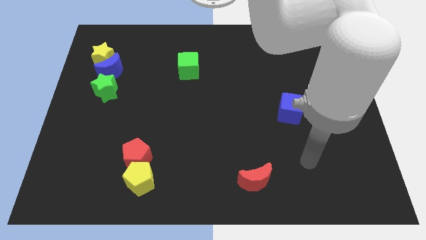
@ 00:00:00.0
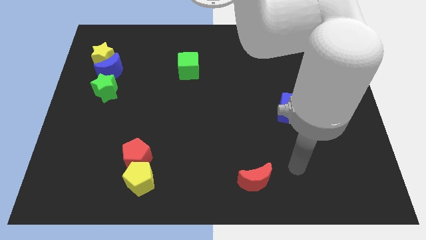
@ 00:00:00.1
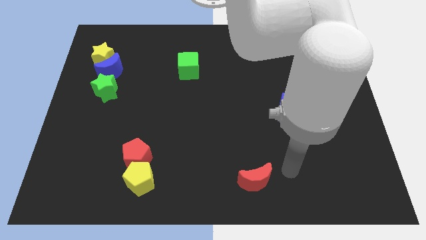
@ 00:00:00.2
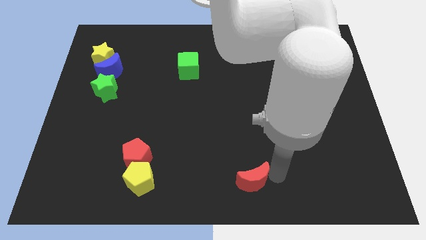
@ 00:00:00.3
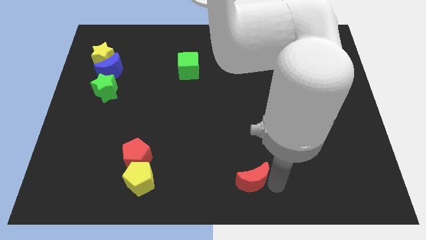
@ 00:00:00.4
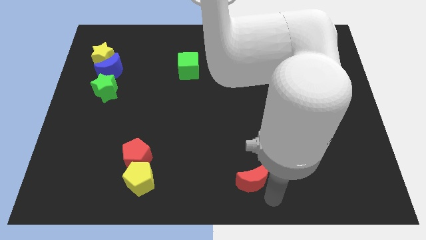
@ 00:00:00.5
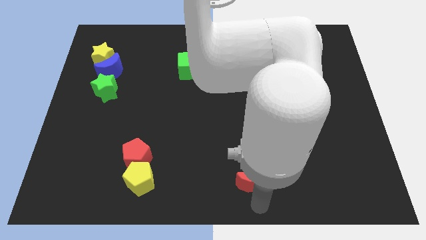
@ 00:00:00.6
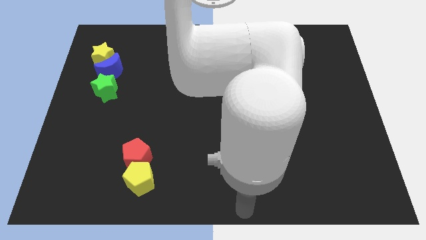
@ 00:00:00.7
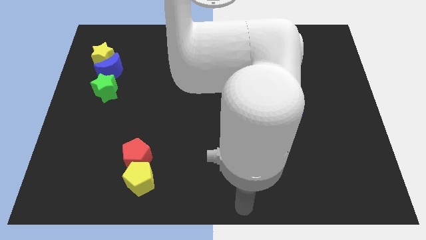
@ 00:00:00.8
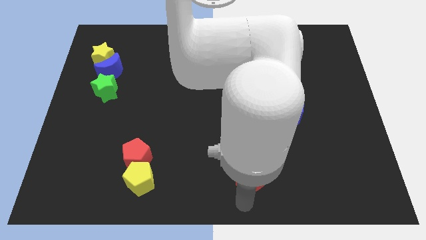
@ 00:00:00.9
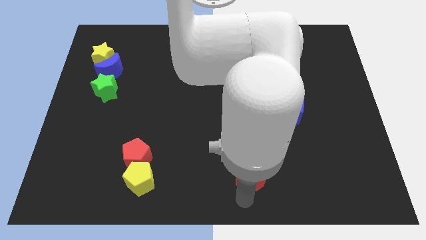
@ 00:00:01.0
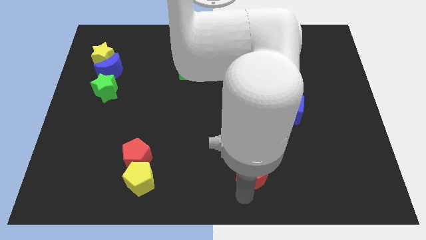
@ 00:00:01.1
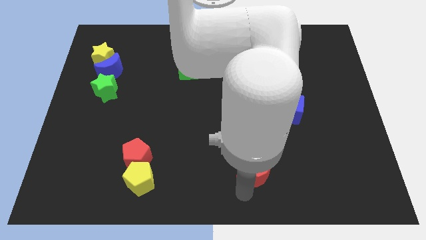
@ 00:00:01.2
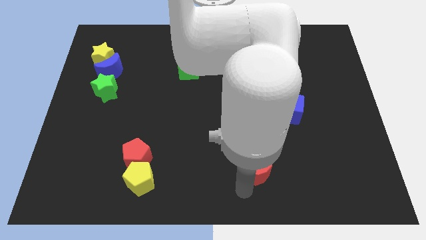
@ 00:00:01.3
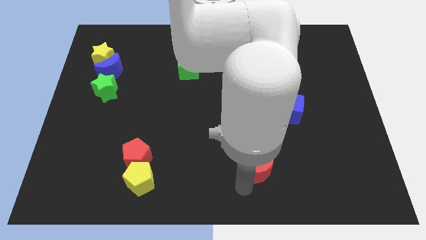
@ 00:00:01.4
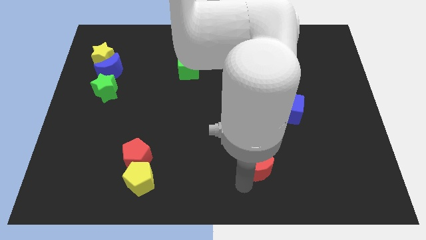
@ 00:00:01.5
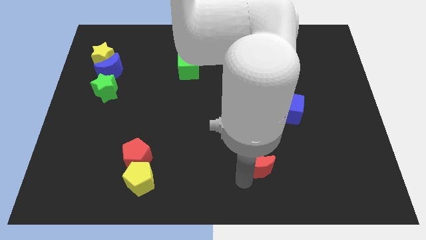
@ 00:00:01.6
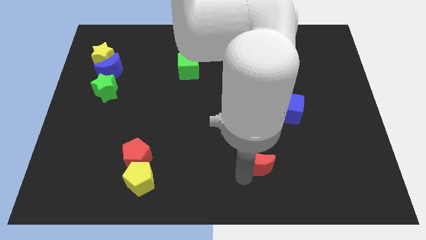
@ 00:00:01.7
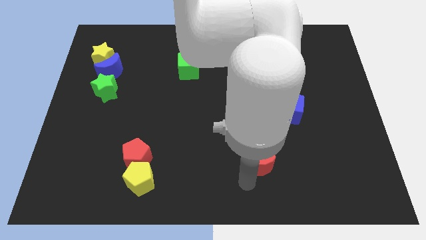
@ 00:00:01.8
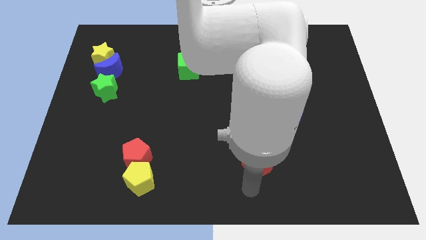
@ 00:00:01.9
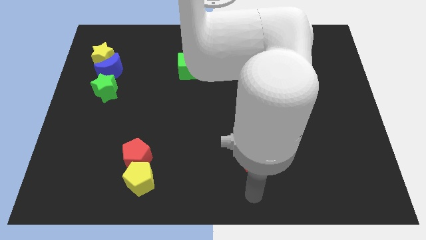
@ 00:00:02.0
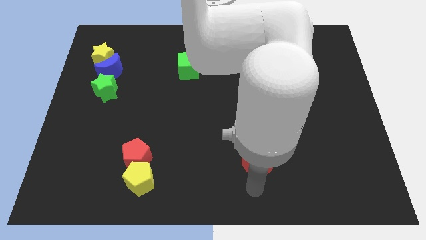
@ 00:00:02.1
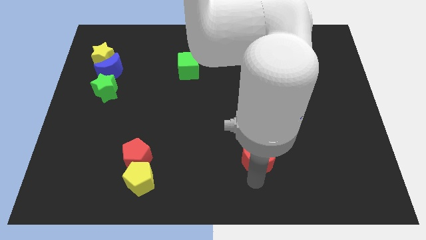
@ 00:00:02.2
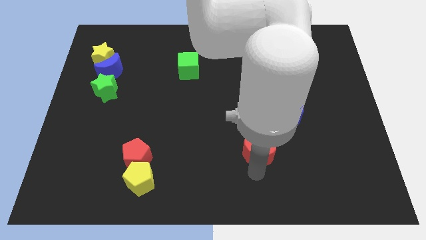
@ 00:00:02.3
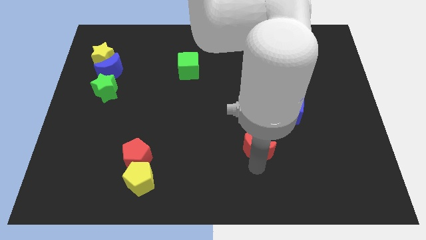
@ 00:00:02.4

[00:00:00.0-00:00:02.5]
push the red moon a little up

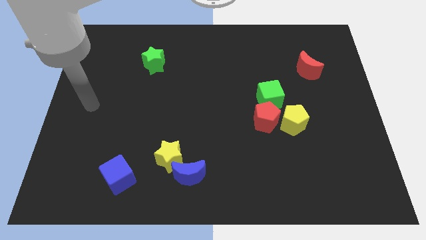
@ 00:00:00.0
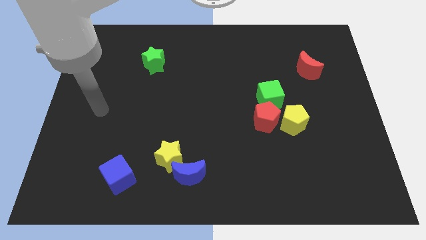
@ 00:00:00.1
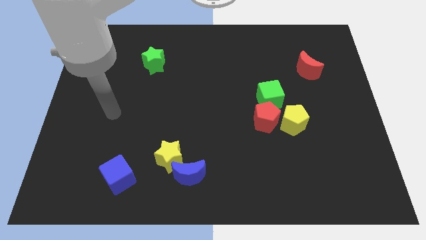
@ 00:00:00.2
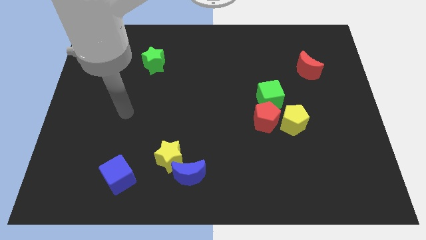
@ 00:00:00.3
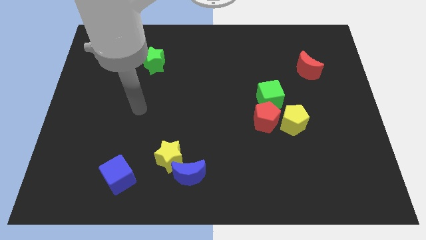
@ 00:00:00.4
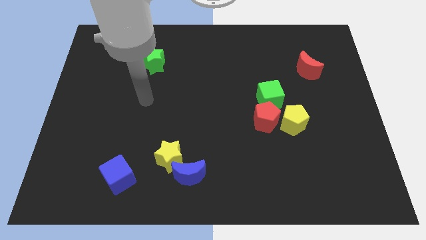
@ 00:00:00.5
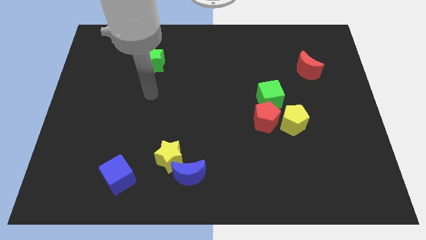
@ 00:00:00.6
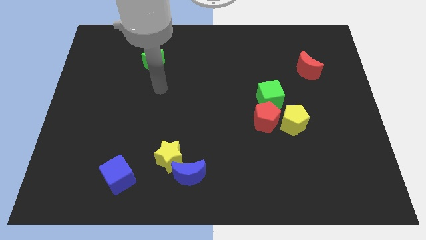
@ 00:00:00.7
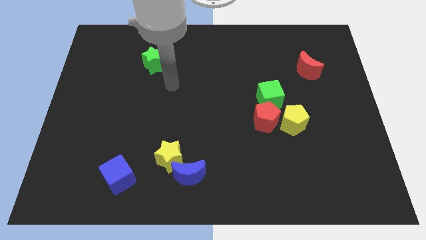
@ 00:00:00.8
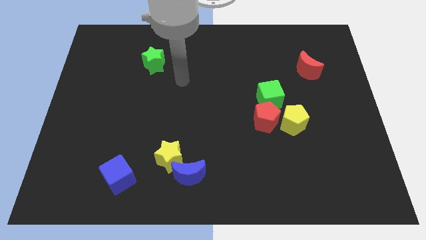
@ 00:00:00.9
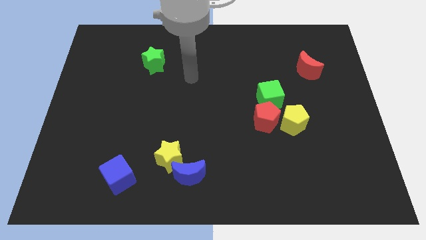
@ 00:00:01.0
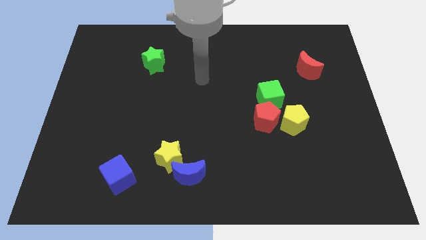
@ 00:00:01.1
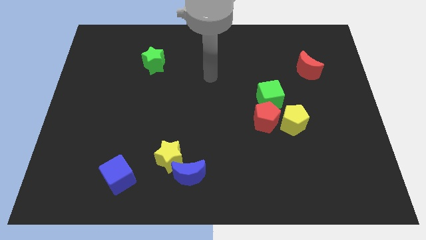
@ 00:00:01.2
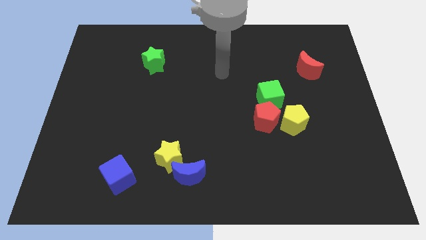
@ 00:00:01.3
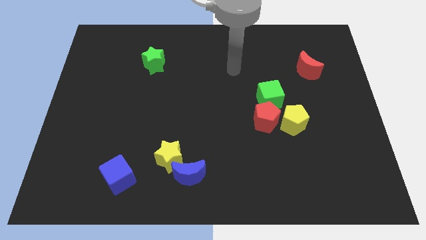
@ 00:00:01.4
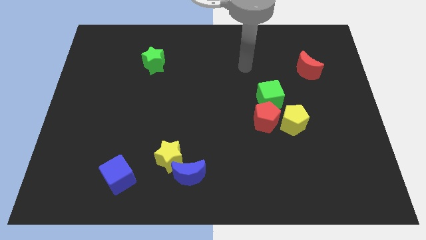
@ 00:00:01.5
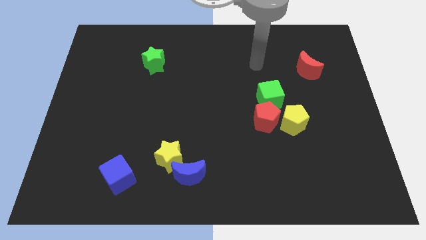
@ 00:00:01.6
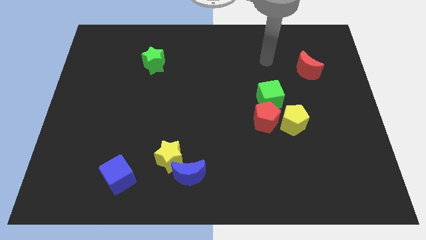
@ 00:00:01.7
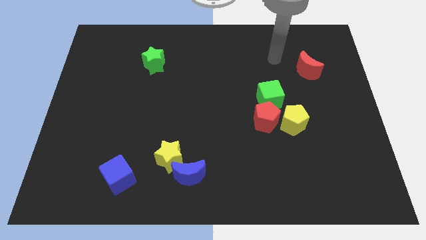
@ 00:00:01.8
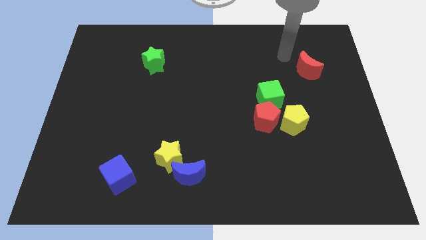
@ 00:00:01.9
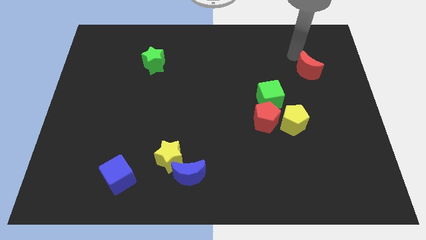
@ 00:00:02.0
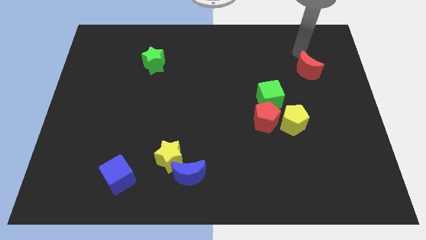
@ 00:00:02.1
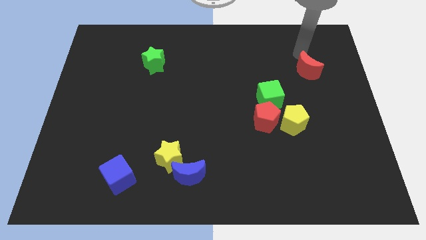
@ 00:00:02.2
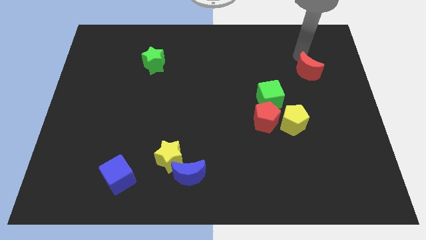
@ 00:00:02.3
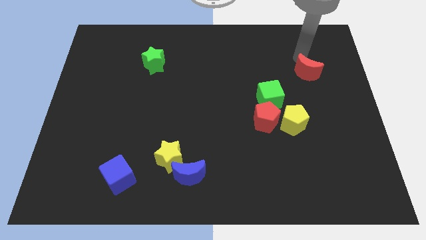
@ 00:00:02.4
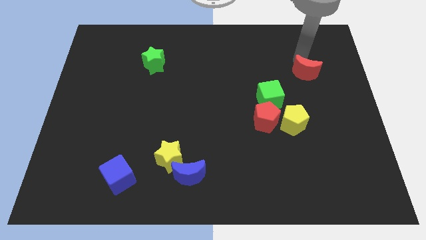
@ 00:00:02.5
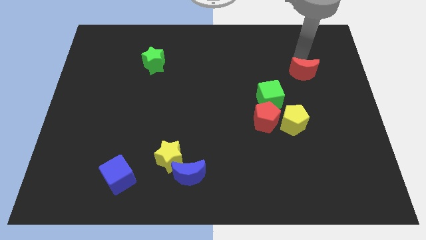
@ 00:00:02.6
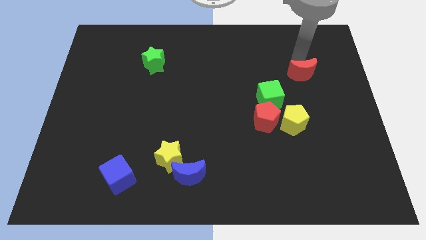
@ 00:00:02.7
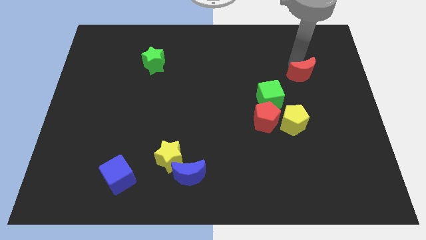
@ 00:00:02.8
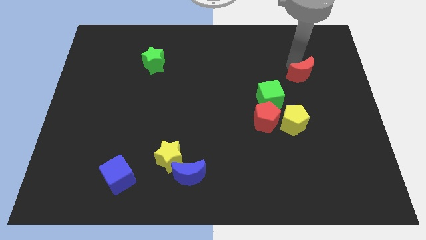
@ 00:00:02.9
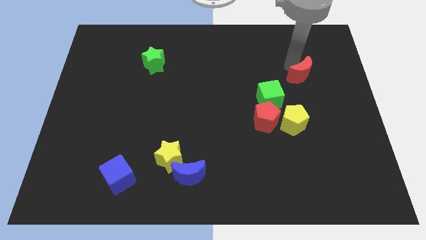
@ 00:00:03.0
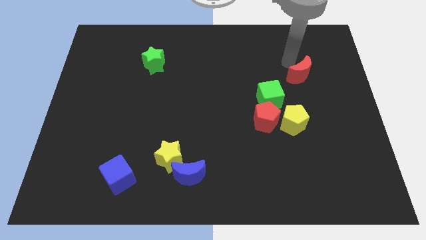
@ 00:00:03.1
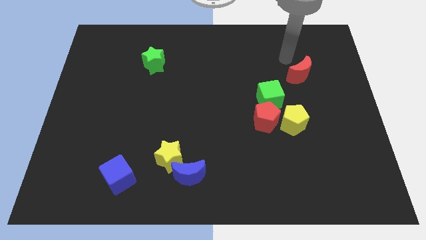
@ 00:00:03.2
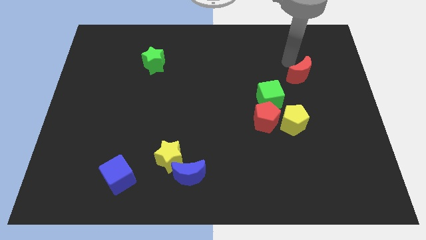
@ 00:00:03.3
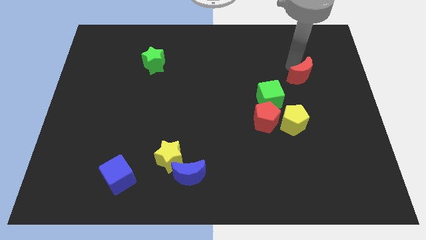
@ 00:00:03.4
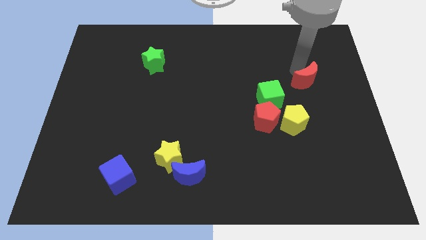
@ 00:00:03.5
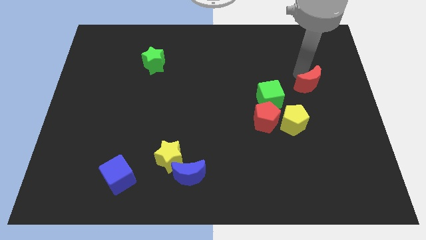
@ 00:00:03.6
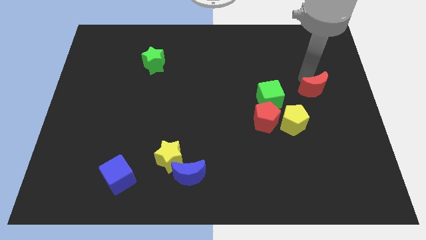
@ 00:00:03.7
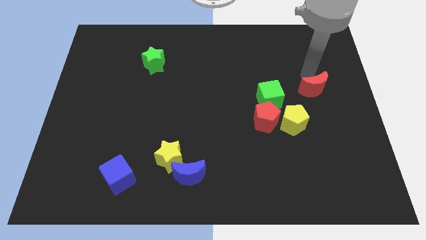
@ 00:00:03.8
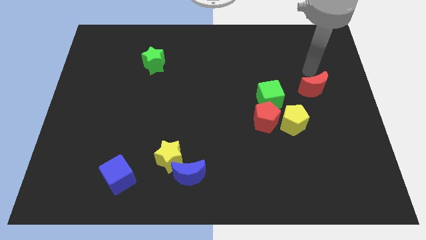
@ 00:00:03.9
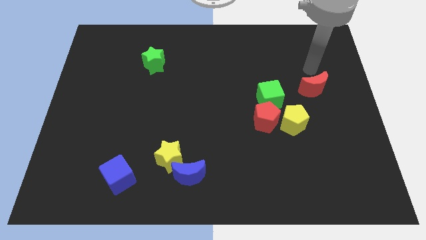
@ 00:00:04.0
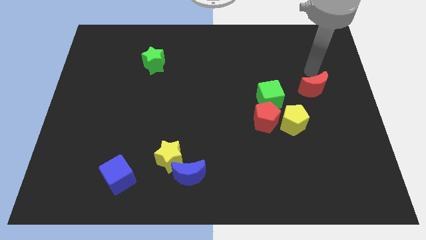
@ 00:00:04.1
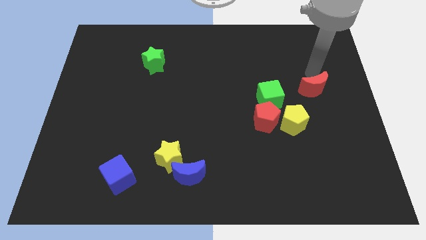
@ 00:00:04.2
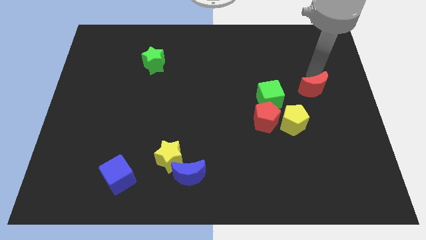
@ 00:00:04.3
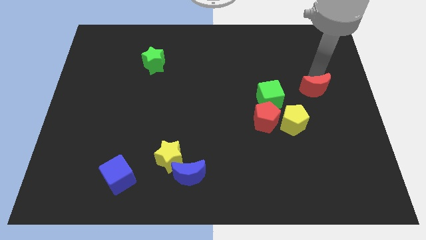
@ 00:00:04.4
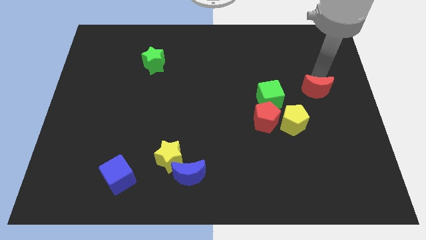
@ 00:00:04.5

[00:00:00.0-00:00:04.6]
slide the red moon a little bit down

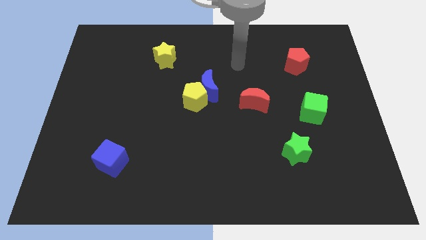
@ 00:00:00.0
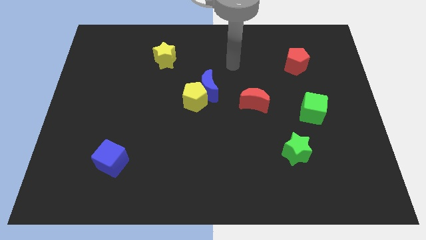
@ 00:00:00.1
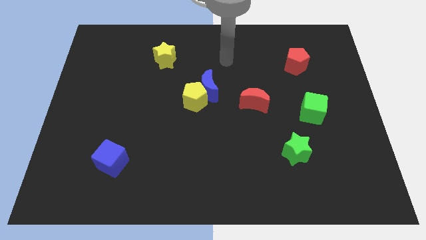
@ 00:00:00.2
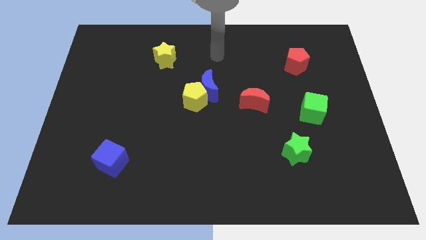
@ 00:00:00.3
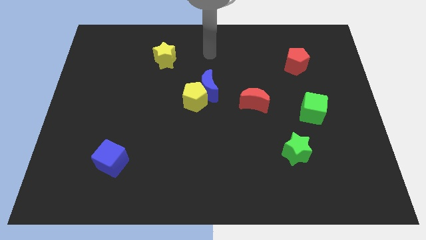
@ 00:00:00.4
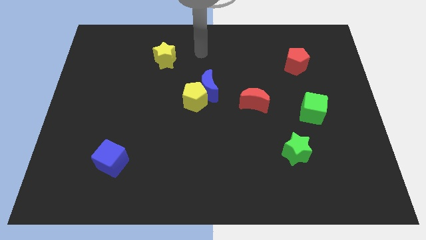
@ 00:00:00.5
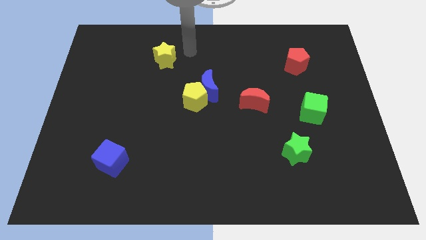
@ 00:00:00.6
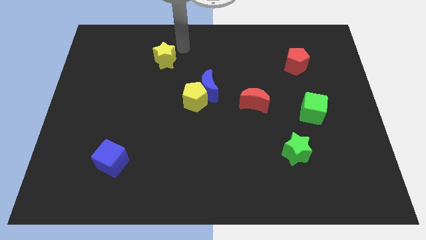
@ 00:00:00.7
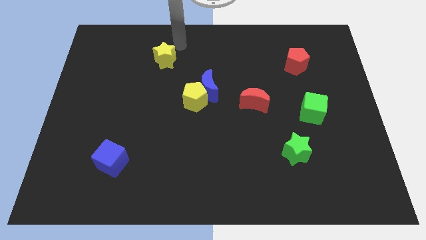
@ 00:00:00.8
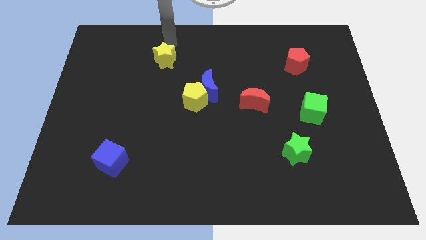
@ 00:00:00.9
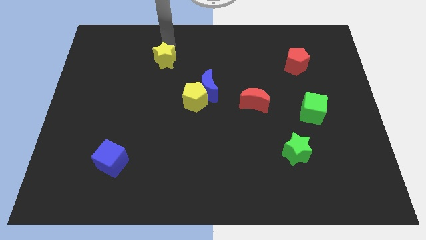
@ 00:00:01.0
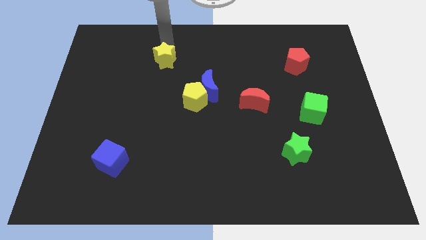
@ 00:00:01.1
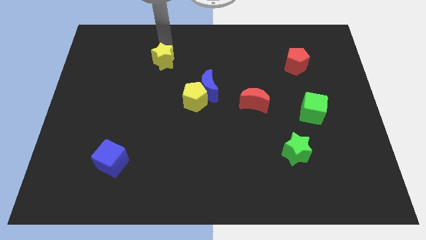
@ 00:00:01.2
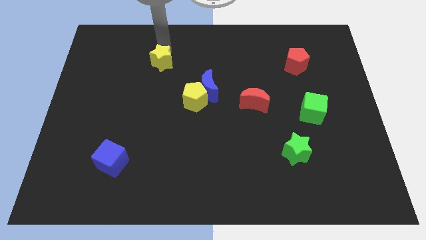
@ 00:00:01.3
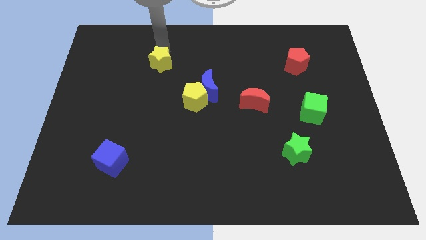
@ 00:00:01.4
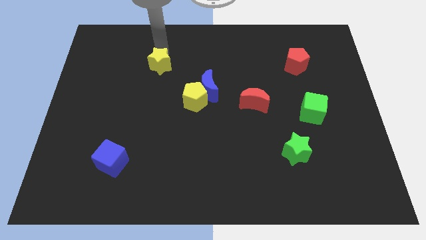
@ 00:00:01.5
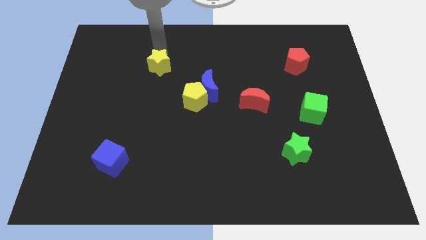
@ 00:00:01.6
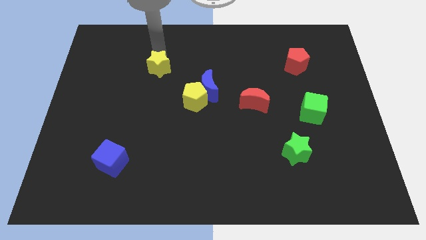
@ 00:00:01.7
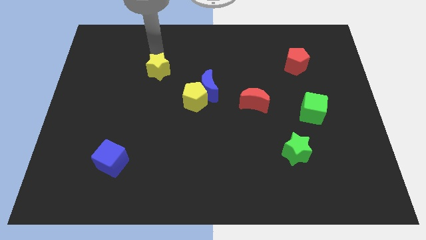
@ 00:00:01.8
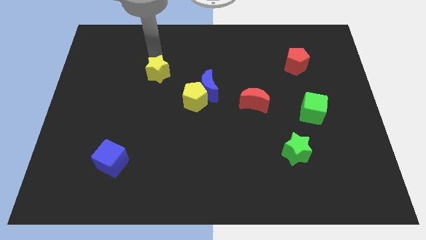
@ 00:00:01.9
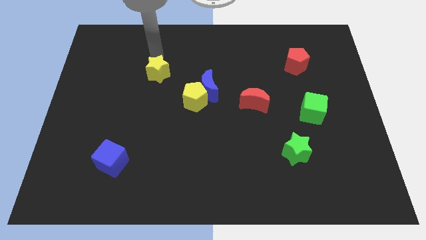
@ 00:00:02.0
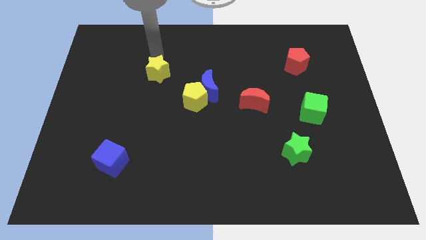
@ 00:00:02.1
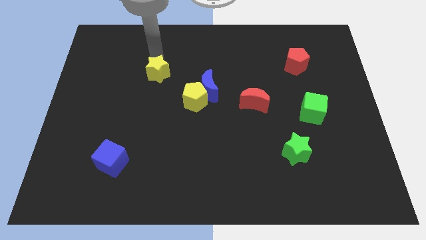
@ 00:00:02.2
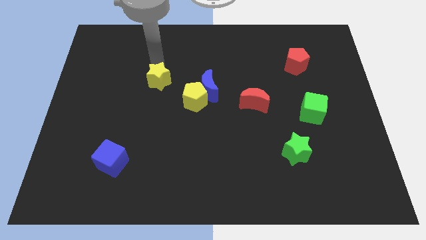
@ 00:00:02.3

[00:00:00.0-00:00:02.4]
slide the yellow star downwards a bit
